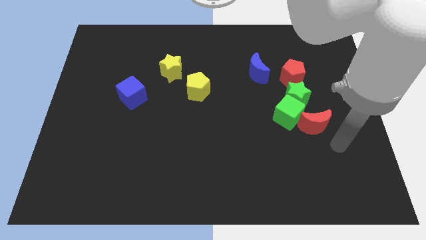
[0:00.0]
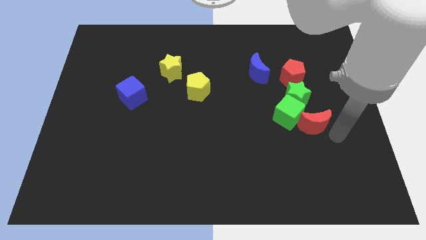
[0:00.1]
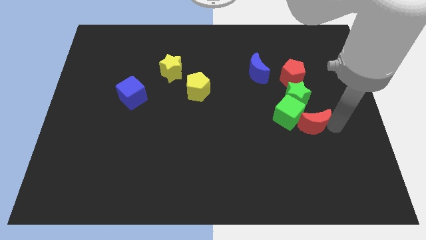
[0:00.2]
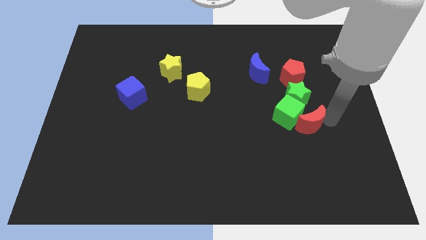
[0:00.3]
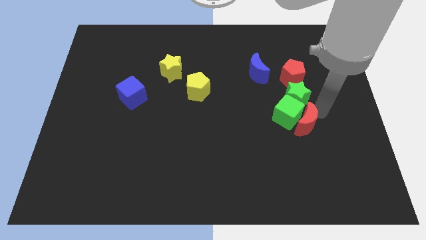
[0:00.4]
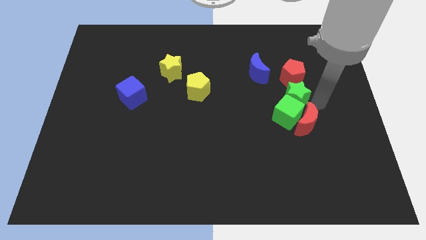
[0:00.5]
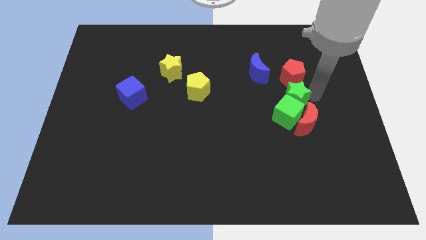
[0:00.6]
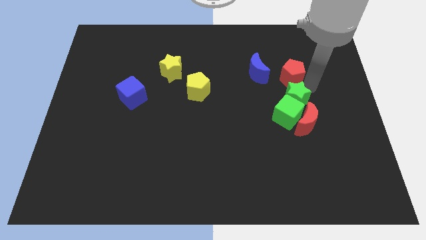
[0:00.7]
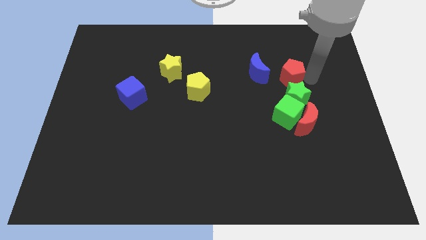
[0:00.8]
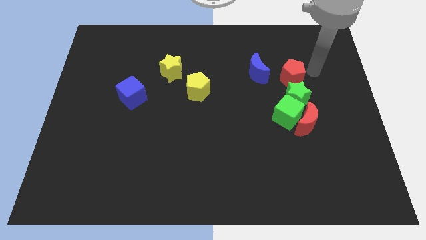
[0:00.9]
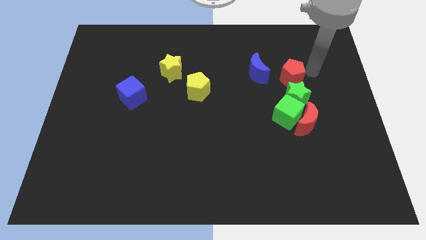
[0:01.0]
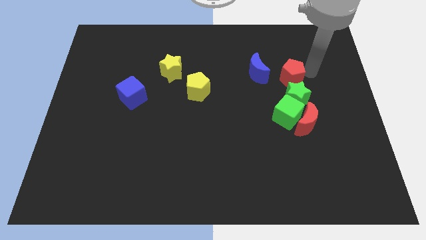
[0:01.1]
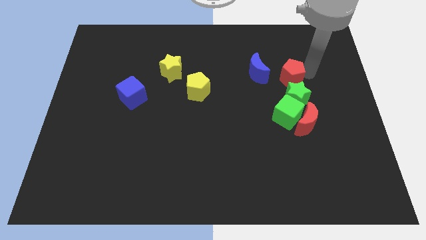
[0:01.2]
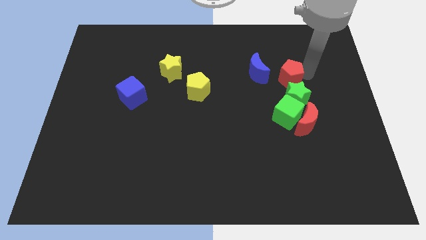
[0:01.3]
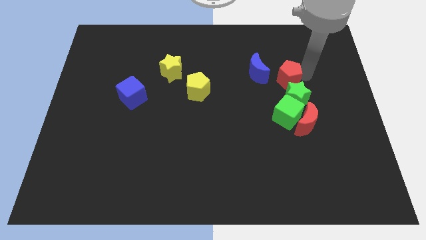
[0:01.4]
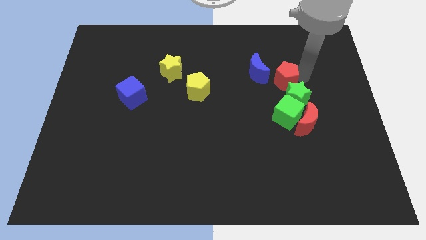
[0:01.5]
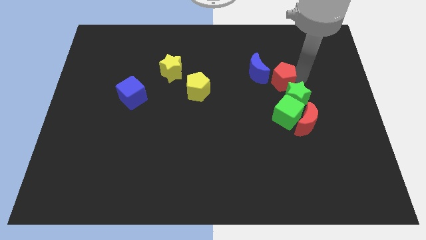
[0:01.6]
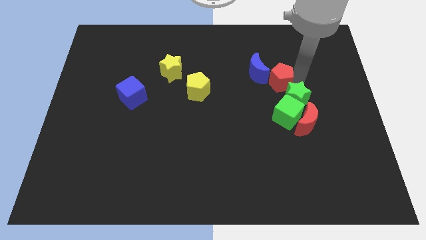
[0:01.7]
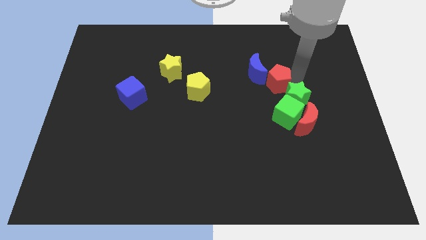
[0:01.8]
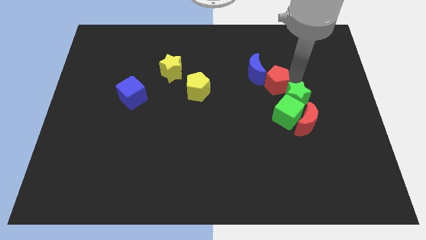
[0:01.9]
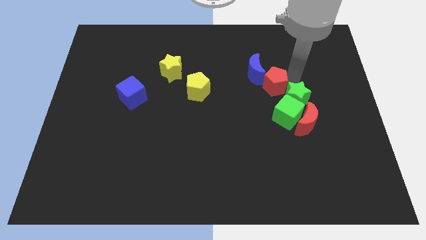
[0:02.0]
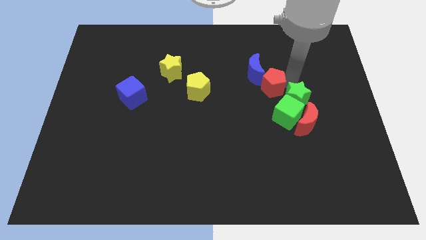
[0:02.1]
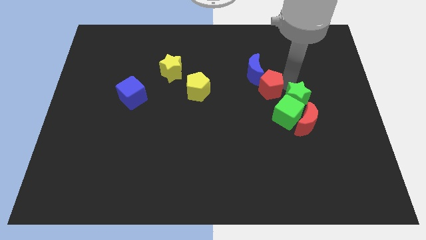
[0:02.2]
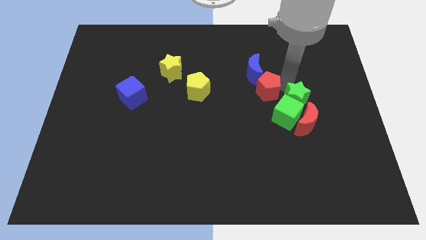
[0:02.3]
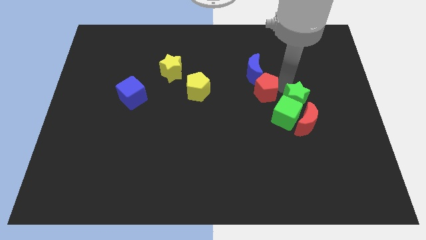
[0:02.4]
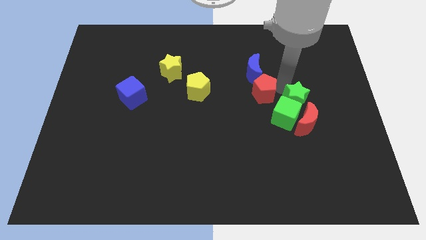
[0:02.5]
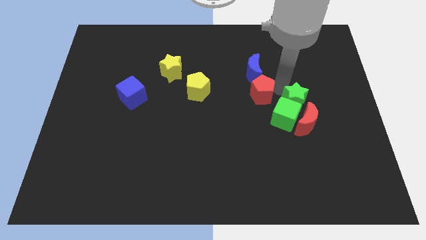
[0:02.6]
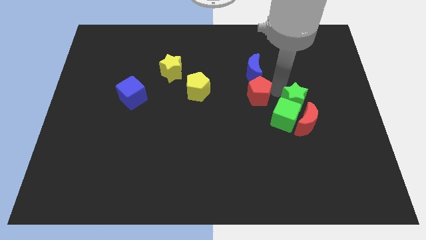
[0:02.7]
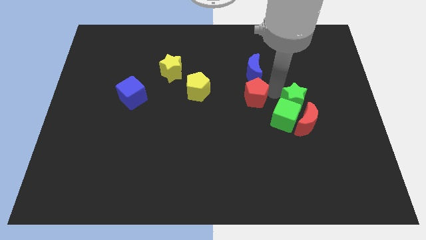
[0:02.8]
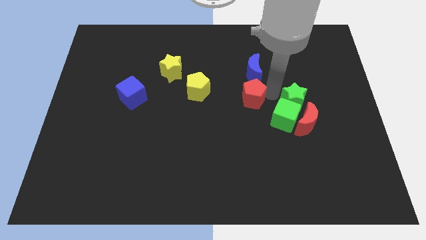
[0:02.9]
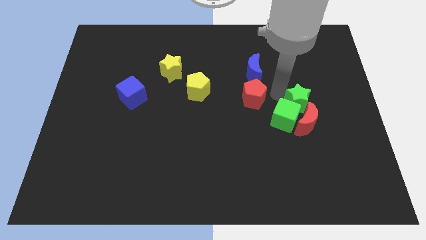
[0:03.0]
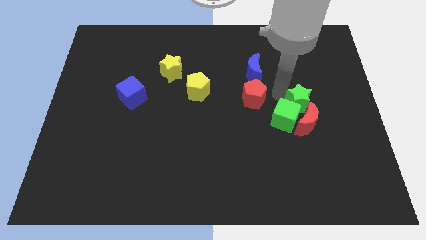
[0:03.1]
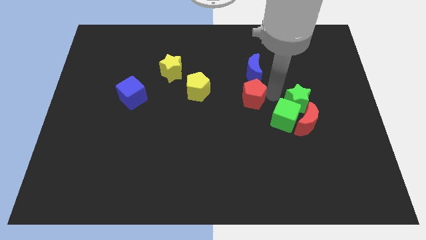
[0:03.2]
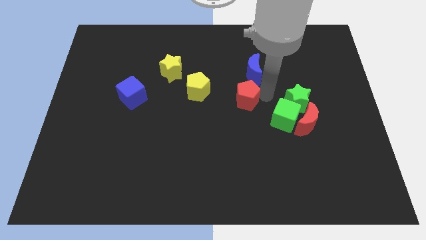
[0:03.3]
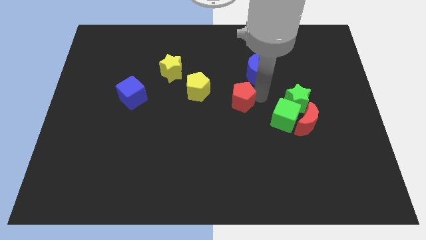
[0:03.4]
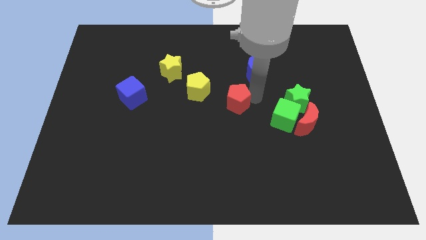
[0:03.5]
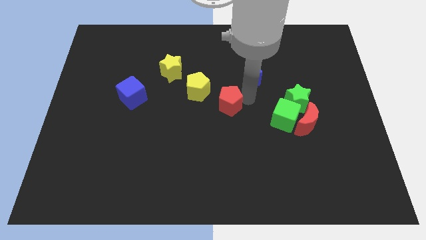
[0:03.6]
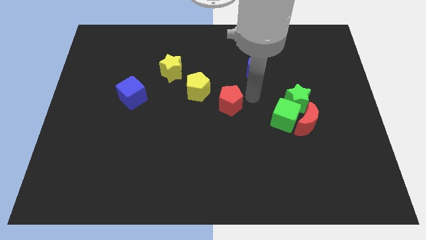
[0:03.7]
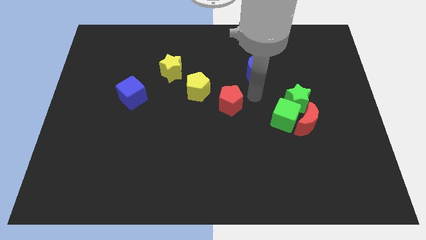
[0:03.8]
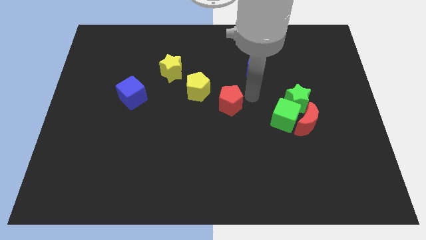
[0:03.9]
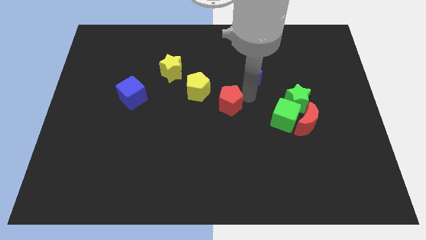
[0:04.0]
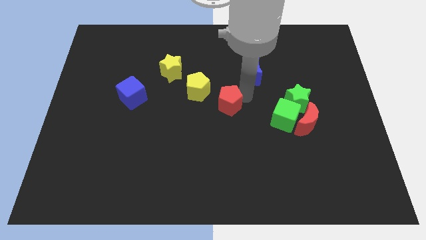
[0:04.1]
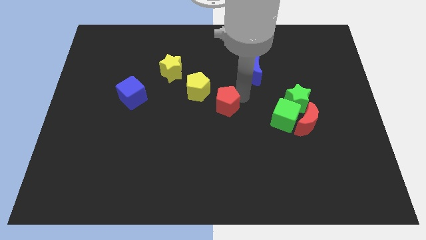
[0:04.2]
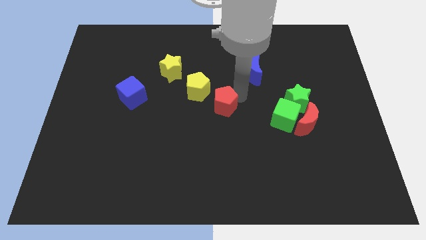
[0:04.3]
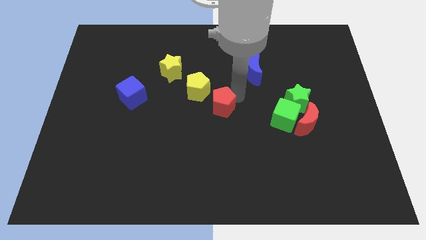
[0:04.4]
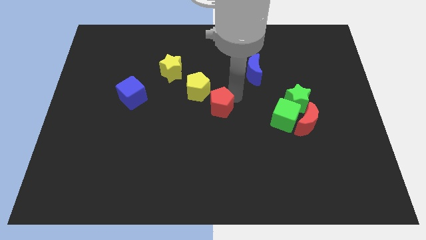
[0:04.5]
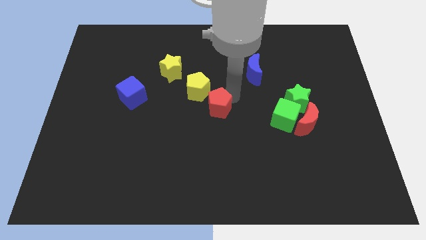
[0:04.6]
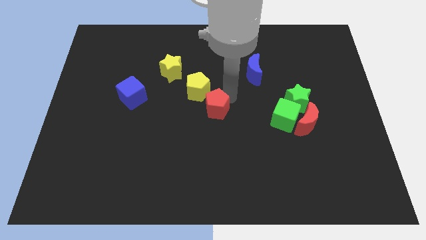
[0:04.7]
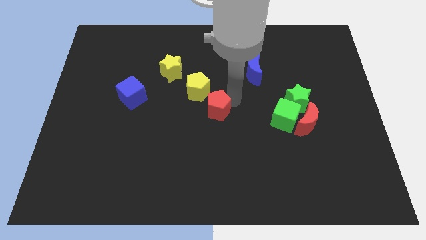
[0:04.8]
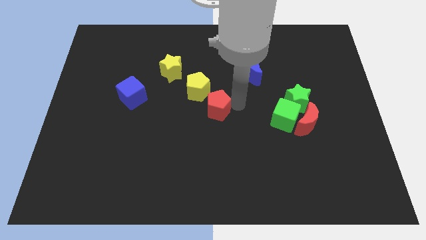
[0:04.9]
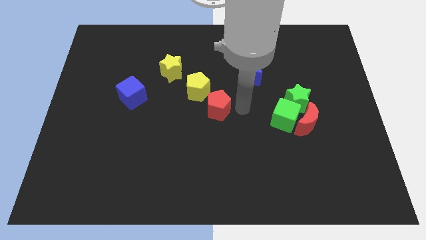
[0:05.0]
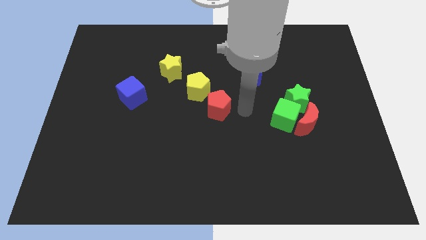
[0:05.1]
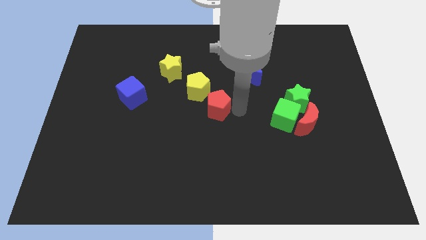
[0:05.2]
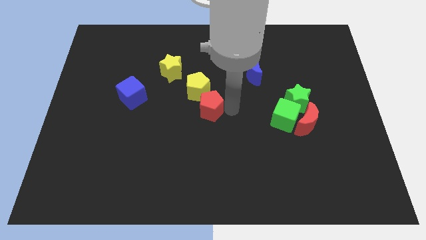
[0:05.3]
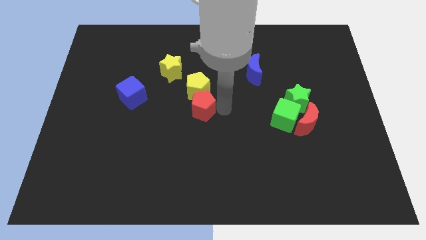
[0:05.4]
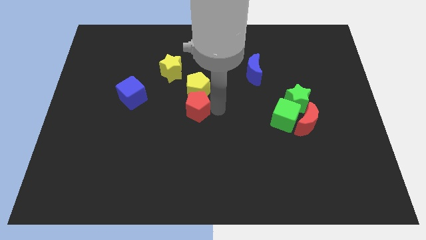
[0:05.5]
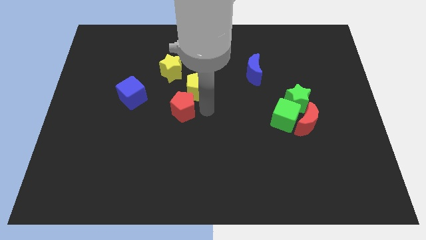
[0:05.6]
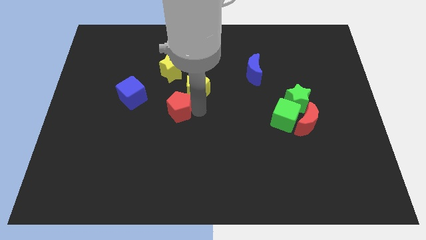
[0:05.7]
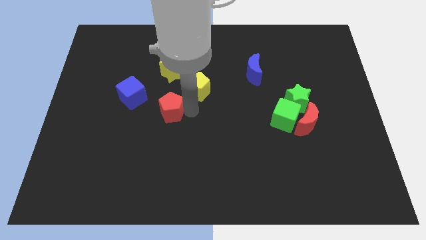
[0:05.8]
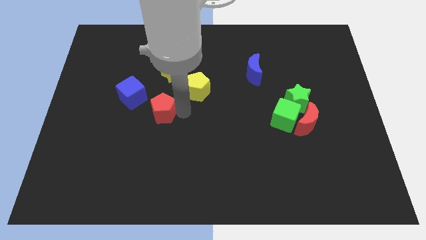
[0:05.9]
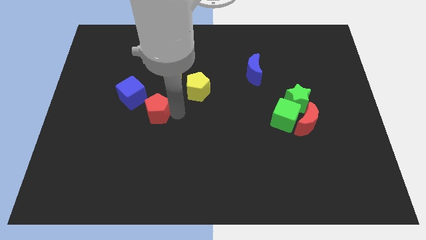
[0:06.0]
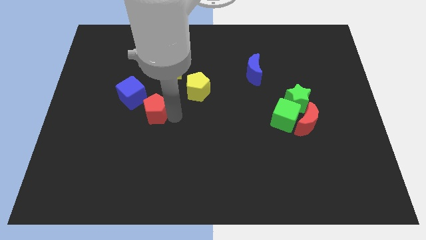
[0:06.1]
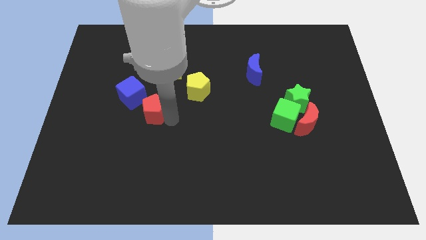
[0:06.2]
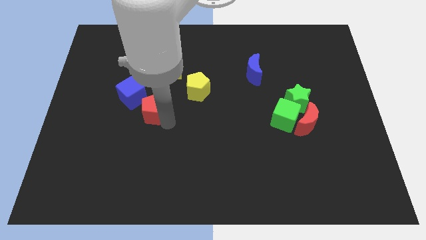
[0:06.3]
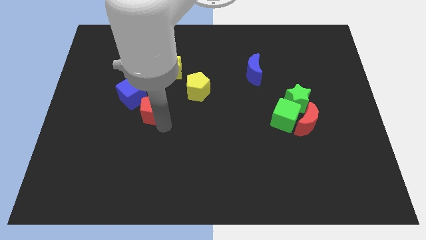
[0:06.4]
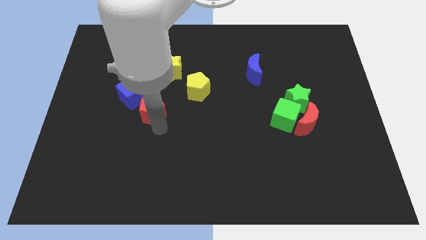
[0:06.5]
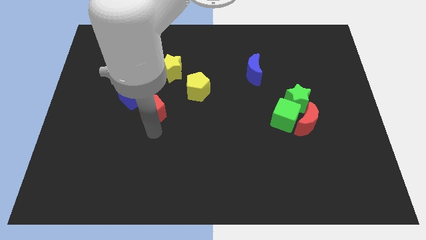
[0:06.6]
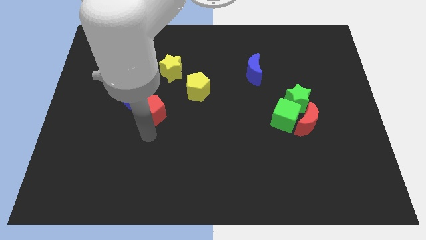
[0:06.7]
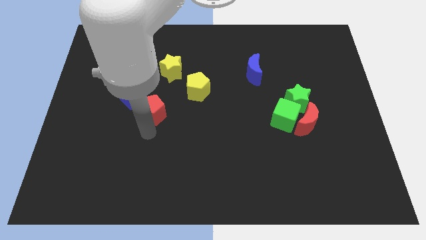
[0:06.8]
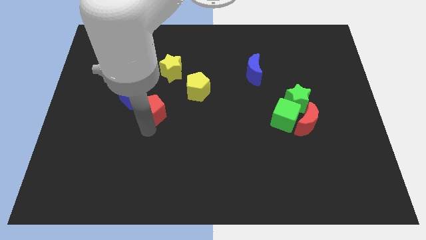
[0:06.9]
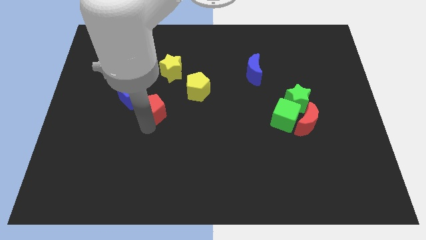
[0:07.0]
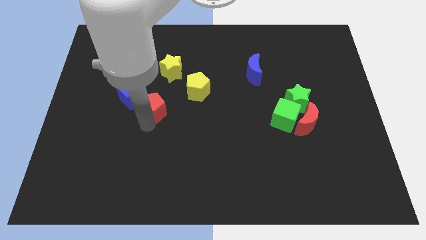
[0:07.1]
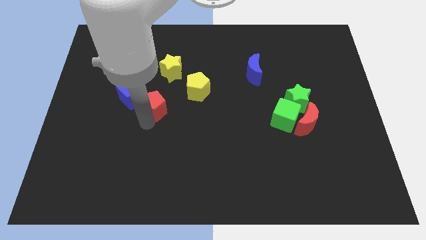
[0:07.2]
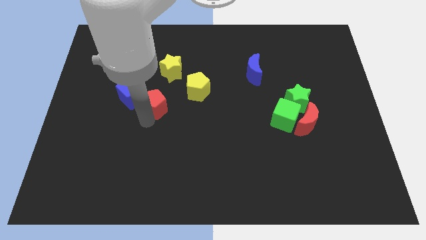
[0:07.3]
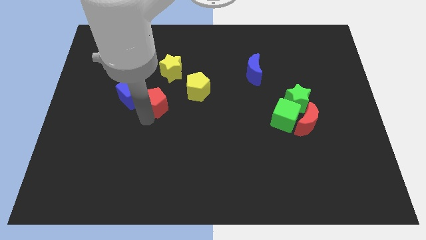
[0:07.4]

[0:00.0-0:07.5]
move the red pentagon close to the blue cube
